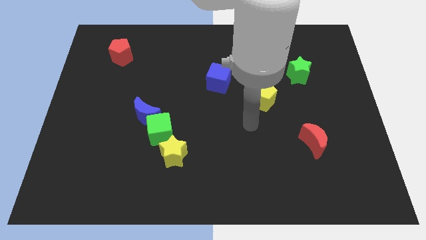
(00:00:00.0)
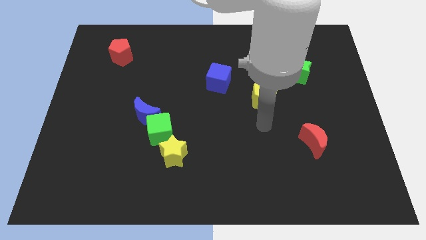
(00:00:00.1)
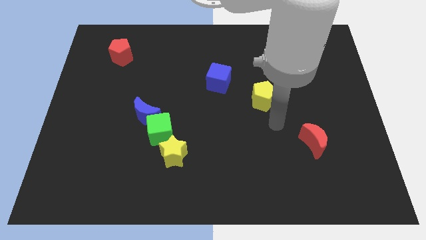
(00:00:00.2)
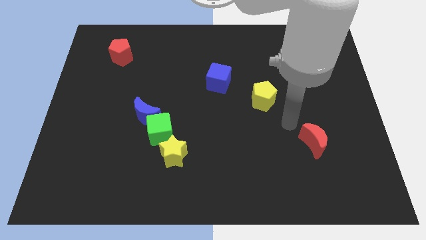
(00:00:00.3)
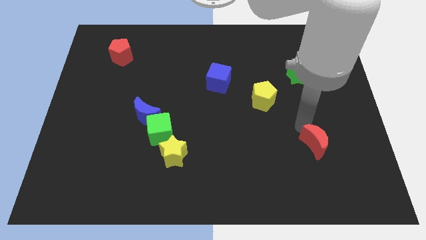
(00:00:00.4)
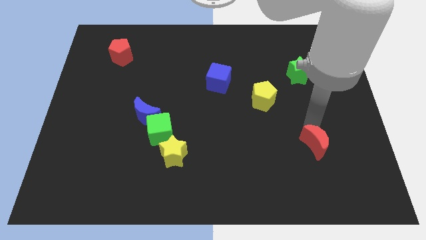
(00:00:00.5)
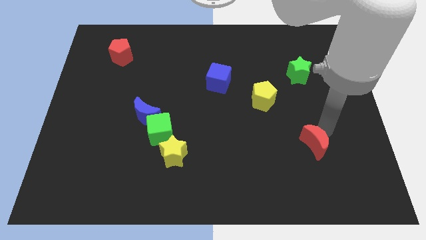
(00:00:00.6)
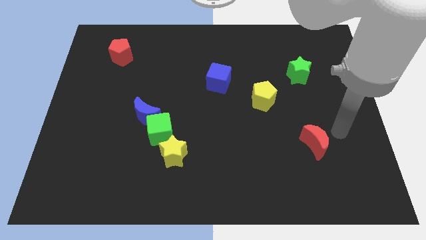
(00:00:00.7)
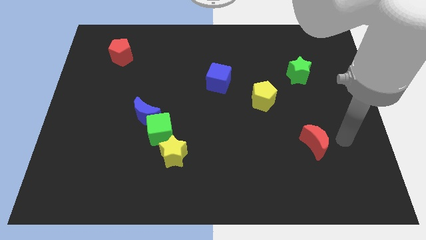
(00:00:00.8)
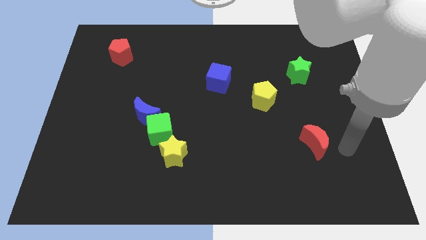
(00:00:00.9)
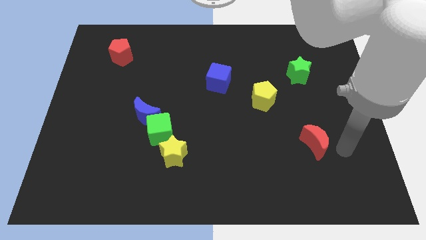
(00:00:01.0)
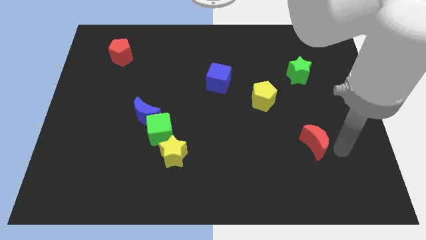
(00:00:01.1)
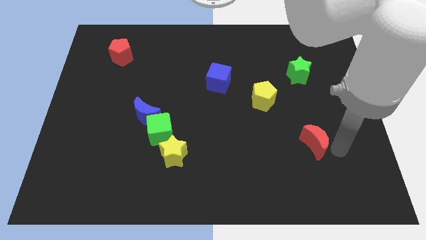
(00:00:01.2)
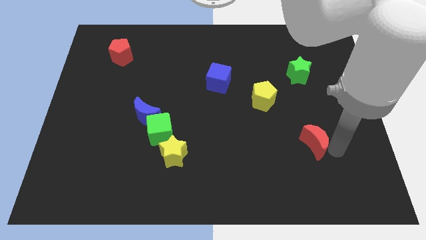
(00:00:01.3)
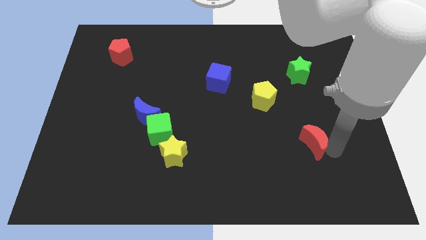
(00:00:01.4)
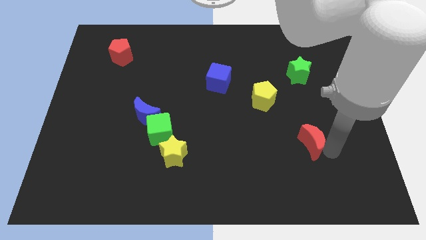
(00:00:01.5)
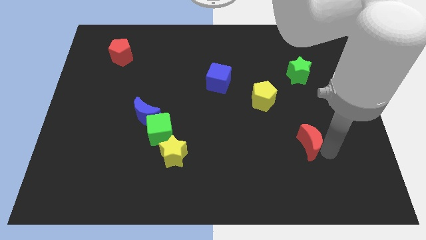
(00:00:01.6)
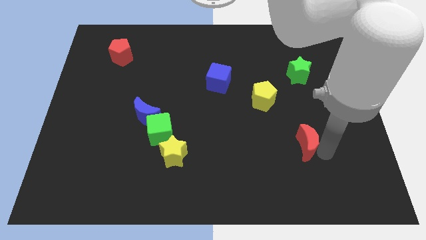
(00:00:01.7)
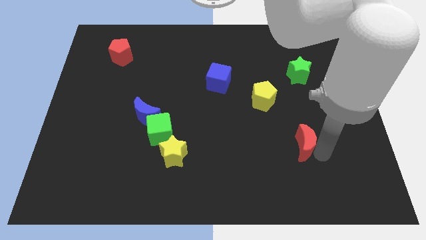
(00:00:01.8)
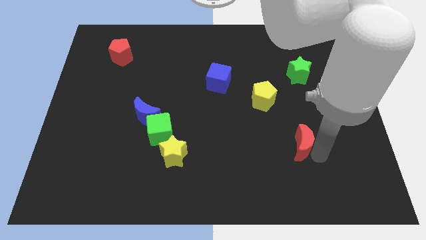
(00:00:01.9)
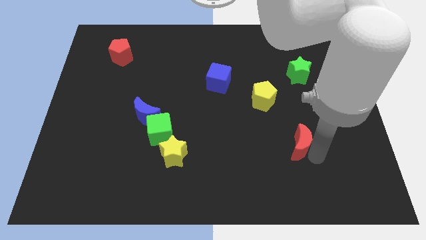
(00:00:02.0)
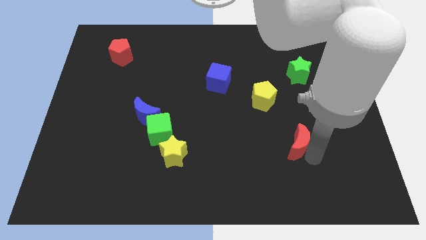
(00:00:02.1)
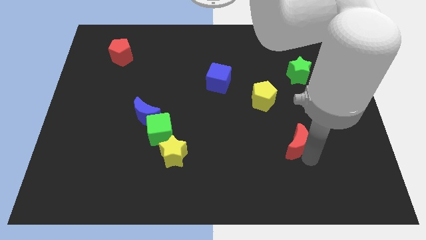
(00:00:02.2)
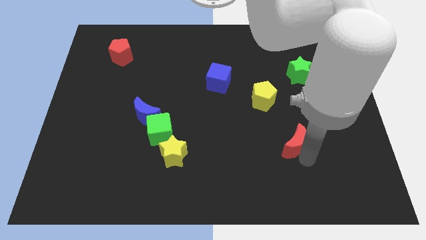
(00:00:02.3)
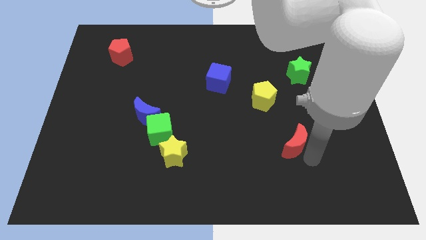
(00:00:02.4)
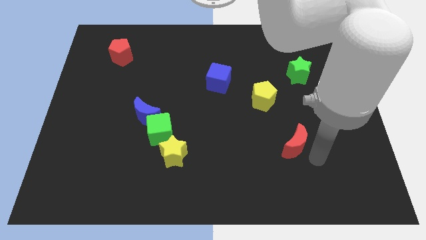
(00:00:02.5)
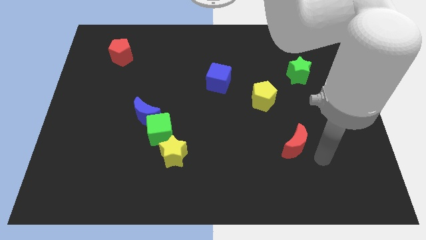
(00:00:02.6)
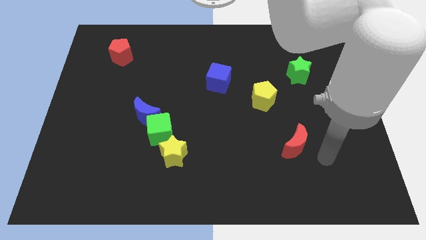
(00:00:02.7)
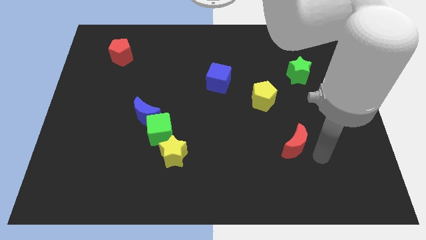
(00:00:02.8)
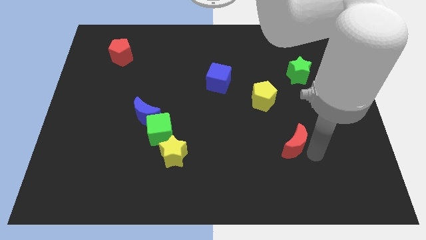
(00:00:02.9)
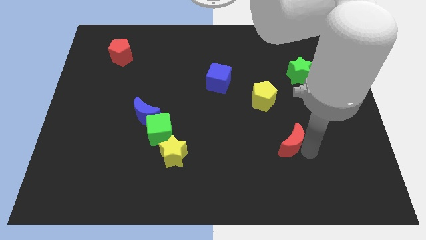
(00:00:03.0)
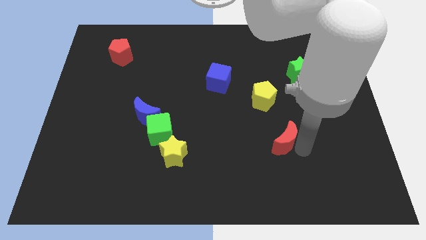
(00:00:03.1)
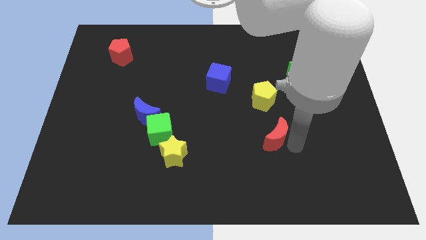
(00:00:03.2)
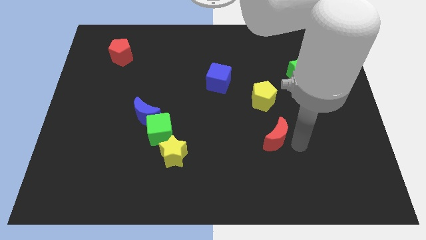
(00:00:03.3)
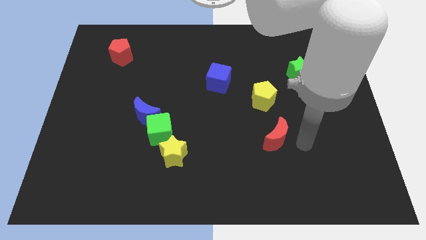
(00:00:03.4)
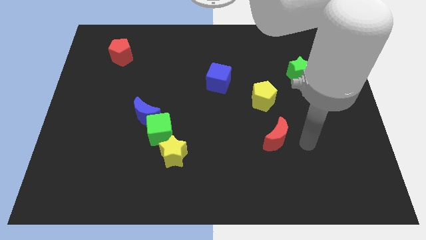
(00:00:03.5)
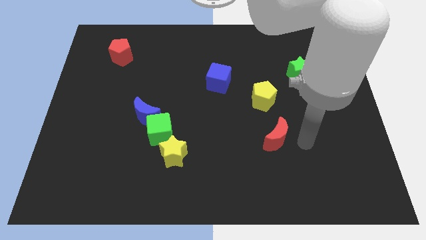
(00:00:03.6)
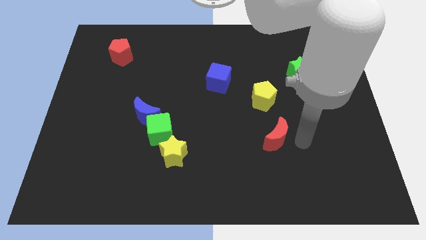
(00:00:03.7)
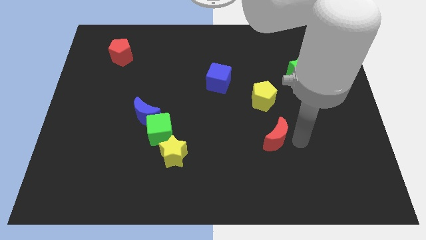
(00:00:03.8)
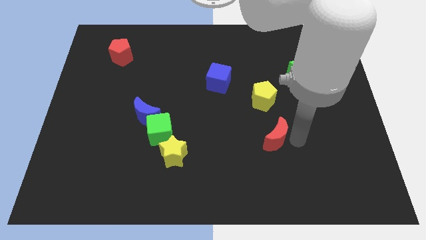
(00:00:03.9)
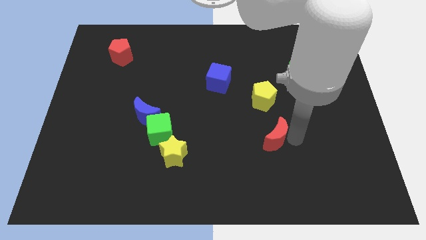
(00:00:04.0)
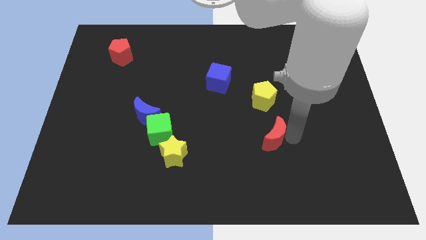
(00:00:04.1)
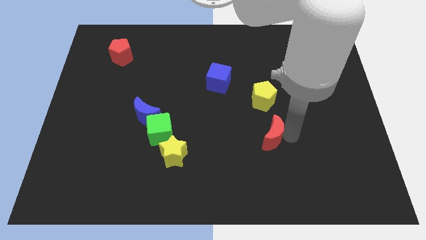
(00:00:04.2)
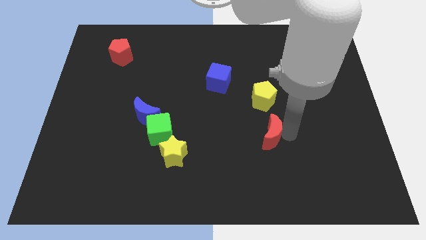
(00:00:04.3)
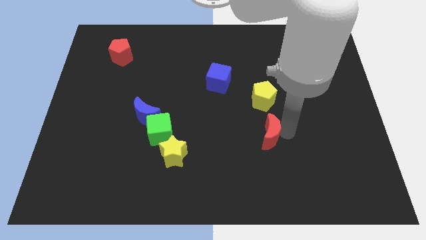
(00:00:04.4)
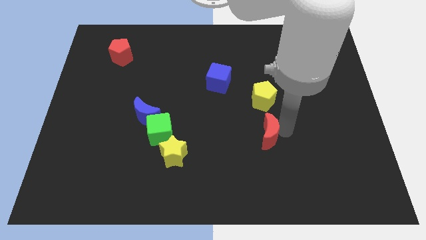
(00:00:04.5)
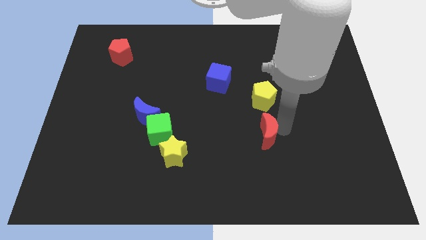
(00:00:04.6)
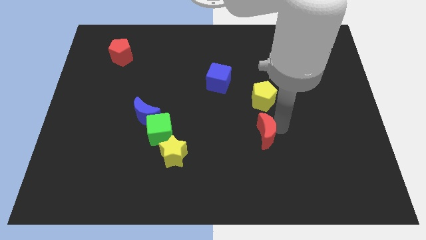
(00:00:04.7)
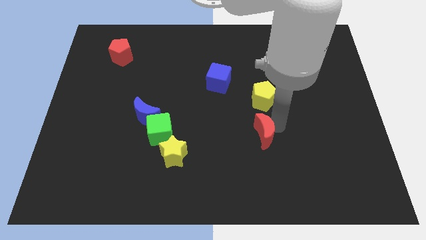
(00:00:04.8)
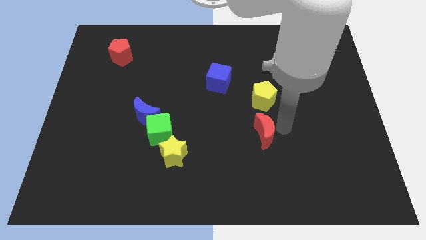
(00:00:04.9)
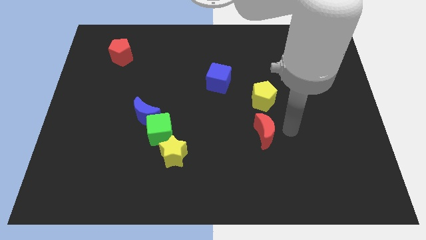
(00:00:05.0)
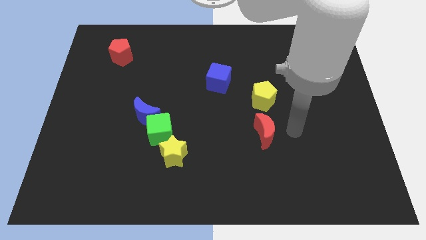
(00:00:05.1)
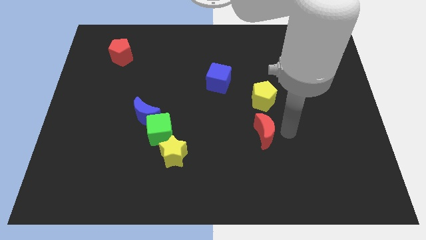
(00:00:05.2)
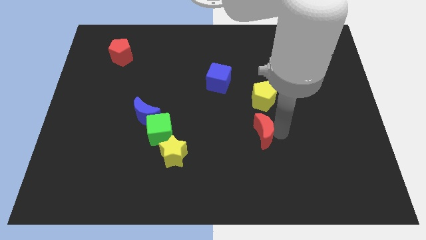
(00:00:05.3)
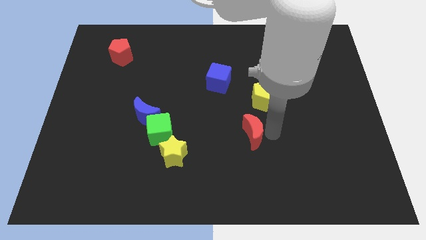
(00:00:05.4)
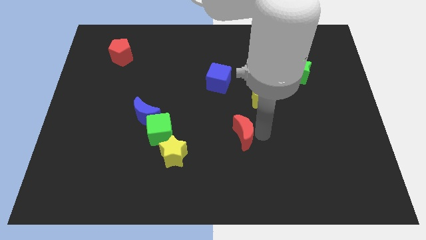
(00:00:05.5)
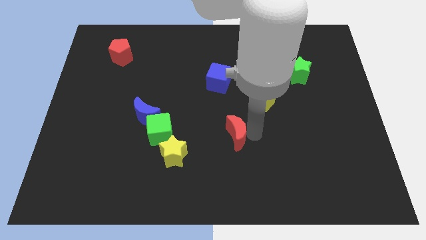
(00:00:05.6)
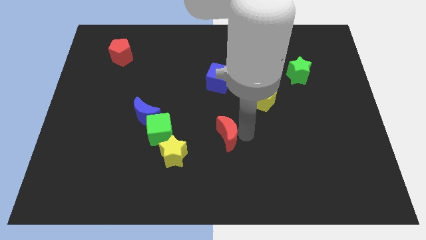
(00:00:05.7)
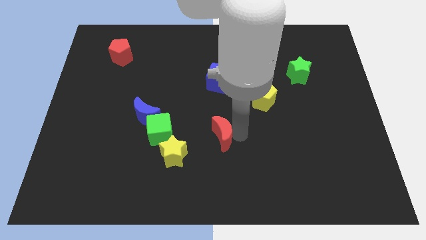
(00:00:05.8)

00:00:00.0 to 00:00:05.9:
put the red moon to the top right side of the yellow star

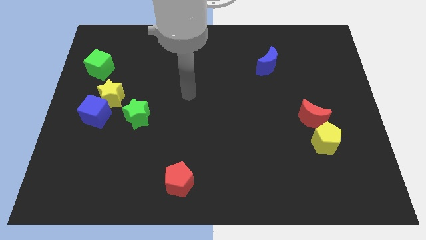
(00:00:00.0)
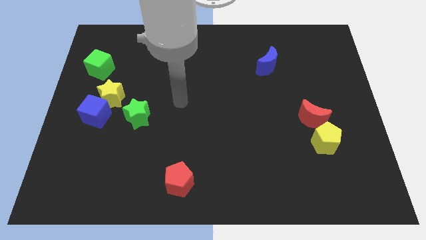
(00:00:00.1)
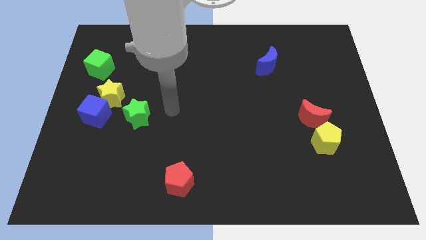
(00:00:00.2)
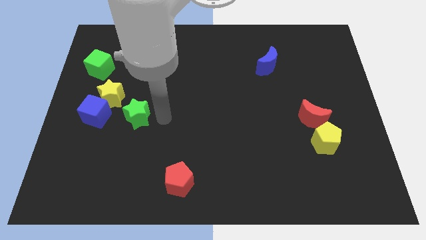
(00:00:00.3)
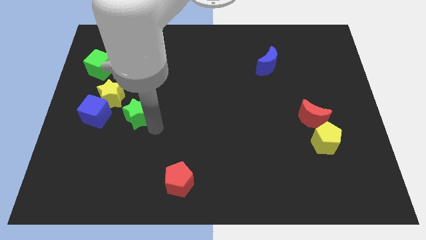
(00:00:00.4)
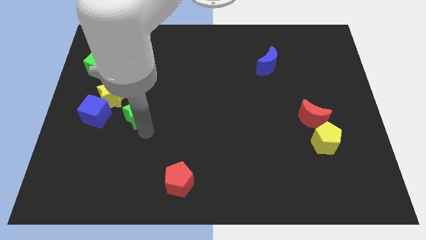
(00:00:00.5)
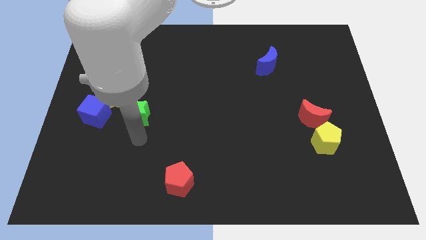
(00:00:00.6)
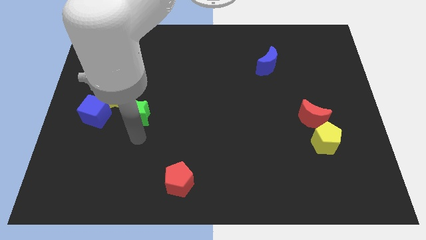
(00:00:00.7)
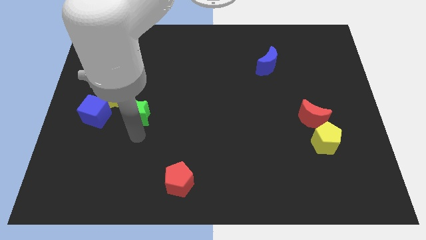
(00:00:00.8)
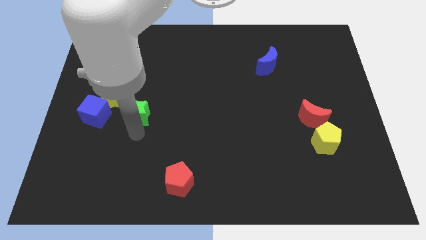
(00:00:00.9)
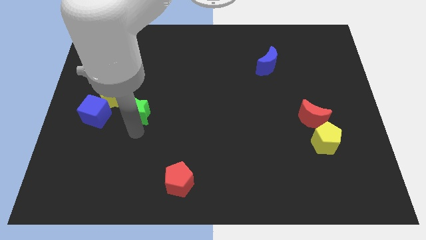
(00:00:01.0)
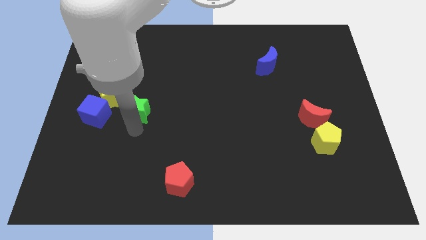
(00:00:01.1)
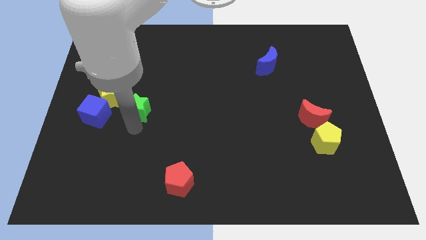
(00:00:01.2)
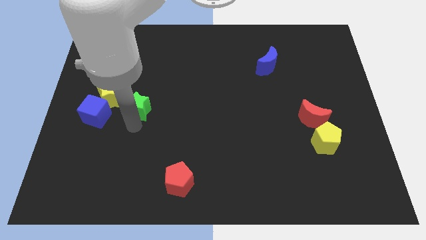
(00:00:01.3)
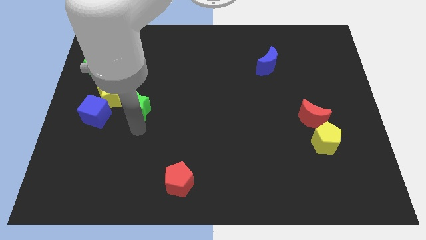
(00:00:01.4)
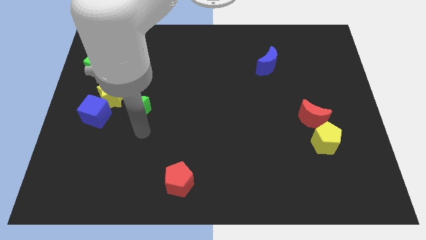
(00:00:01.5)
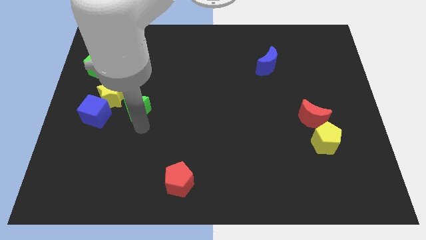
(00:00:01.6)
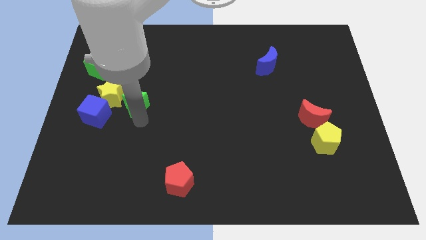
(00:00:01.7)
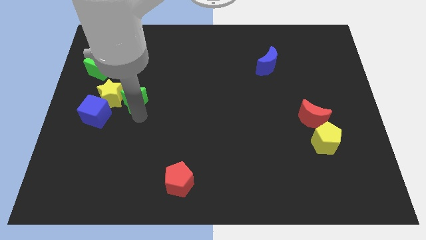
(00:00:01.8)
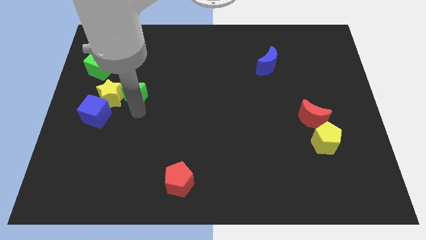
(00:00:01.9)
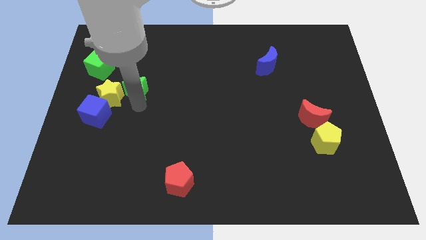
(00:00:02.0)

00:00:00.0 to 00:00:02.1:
move the green star diagonally down and to the right of the green cube
